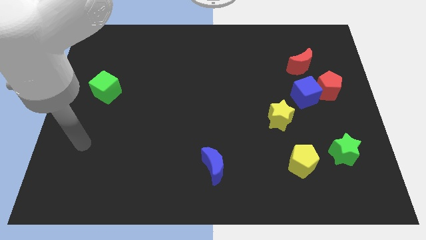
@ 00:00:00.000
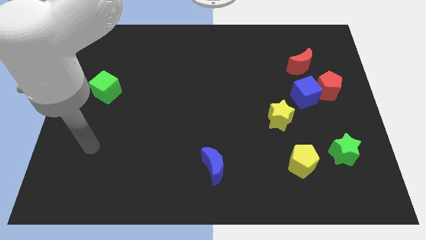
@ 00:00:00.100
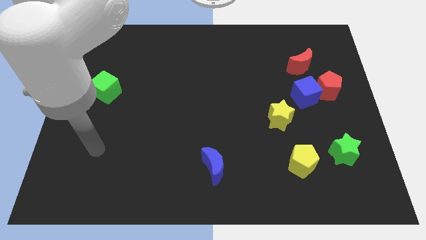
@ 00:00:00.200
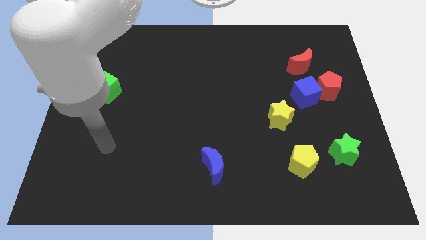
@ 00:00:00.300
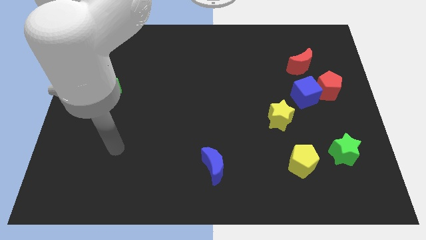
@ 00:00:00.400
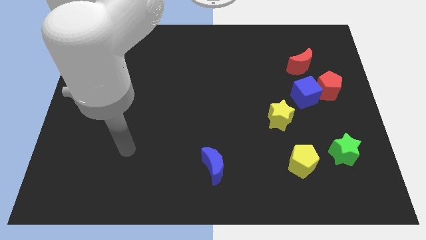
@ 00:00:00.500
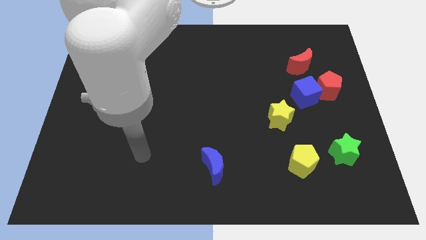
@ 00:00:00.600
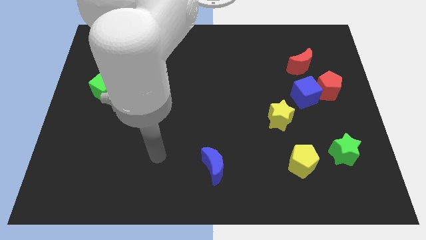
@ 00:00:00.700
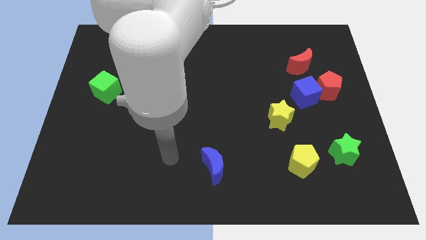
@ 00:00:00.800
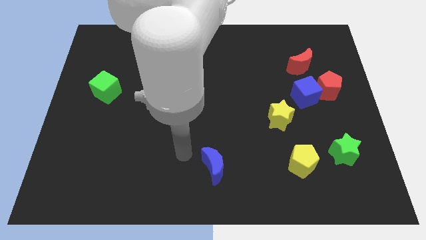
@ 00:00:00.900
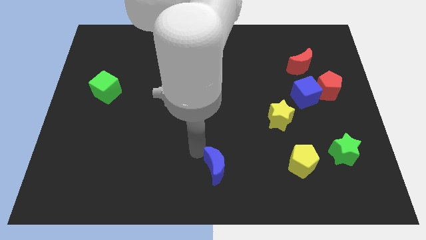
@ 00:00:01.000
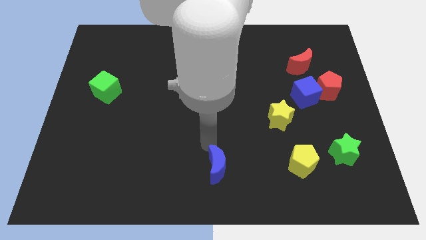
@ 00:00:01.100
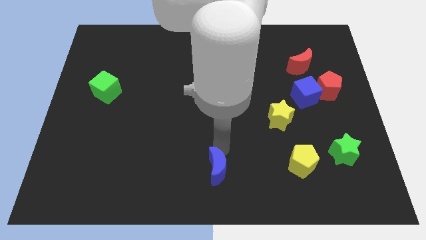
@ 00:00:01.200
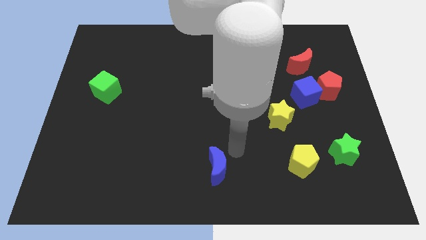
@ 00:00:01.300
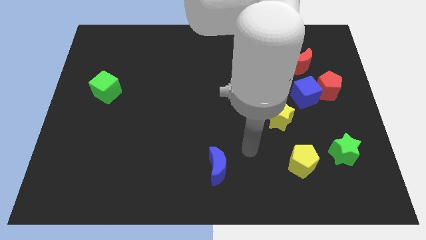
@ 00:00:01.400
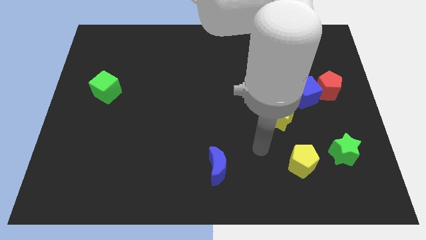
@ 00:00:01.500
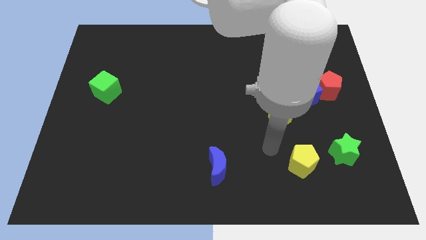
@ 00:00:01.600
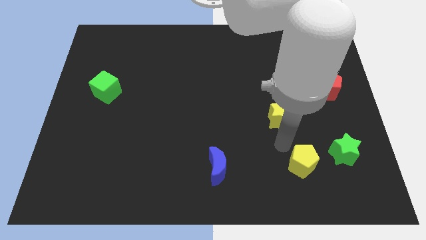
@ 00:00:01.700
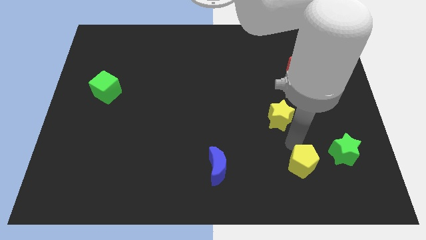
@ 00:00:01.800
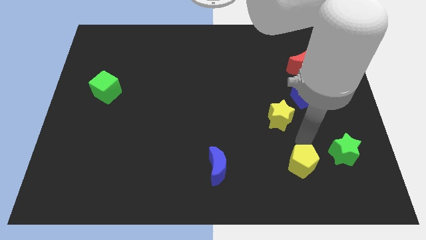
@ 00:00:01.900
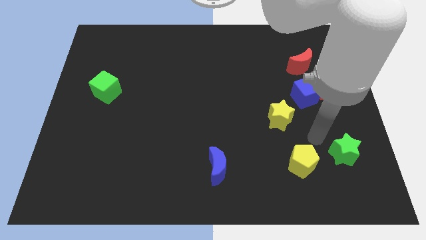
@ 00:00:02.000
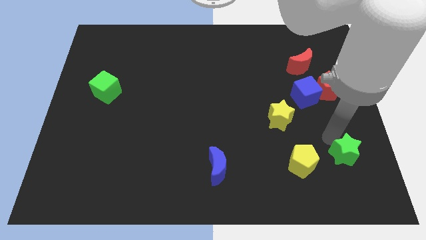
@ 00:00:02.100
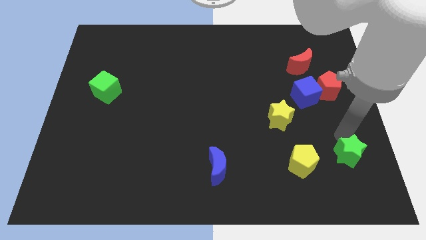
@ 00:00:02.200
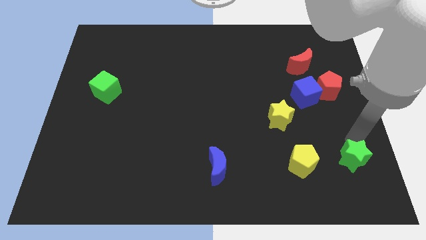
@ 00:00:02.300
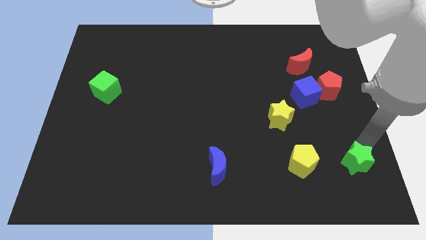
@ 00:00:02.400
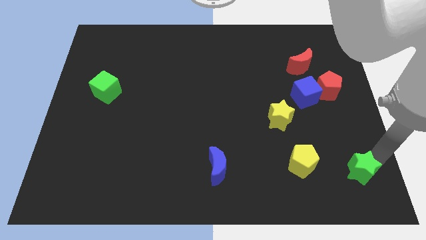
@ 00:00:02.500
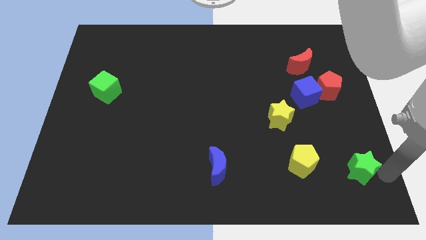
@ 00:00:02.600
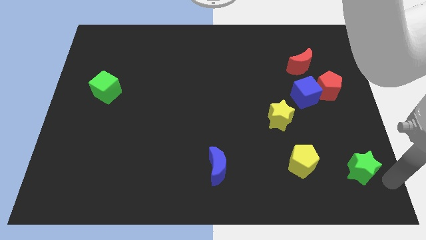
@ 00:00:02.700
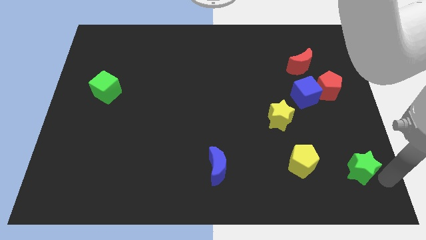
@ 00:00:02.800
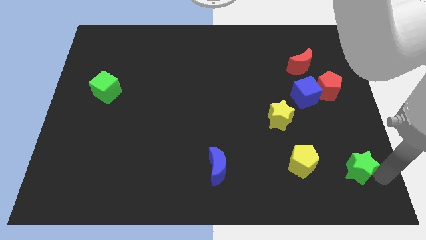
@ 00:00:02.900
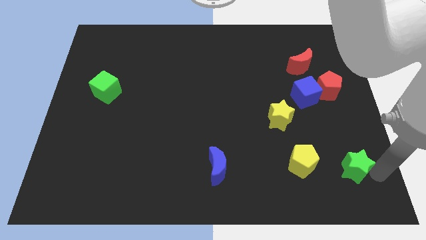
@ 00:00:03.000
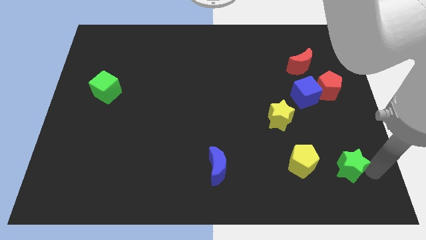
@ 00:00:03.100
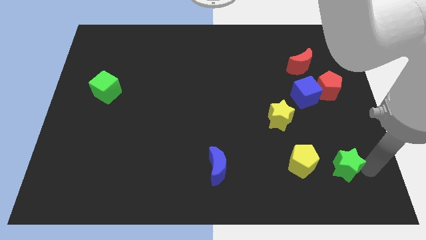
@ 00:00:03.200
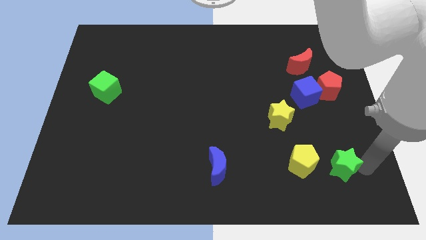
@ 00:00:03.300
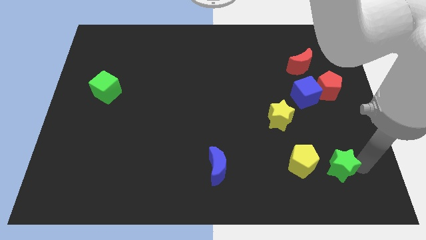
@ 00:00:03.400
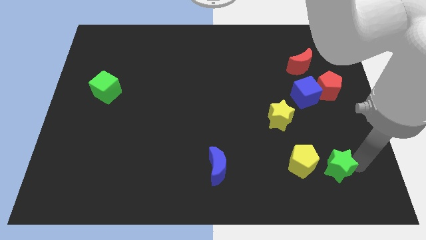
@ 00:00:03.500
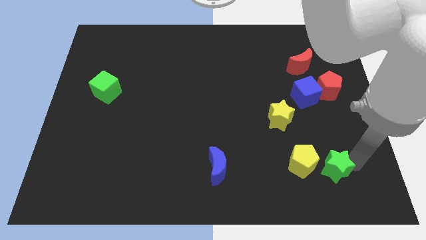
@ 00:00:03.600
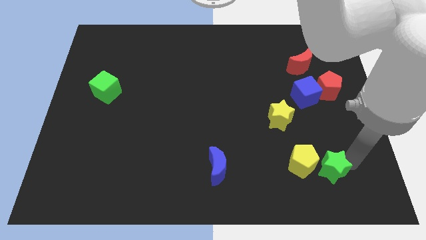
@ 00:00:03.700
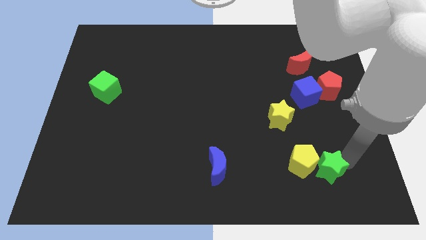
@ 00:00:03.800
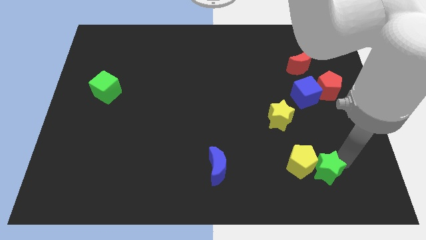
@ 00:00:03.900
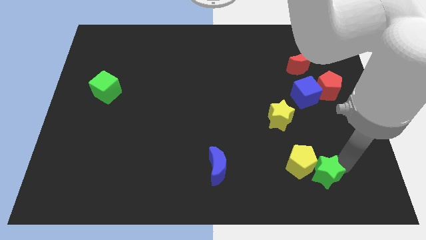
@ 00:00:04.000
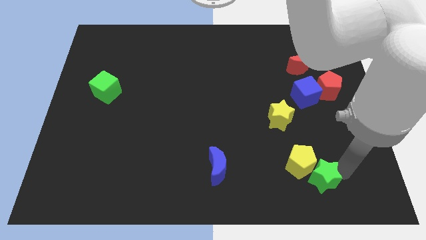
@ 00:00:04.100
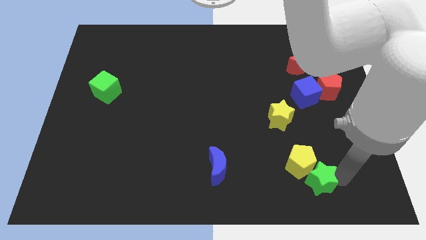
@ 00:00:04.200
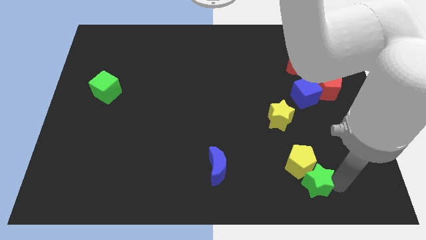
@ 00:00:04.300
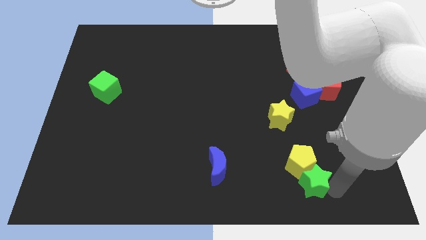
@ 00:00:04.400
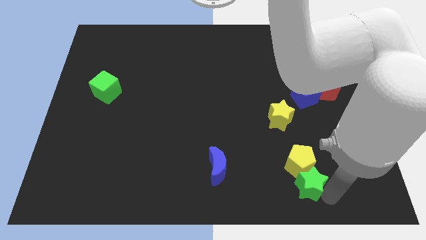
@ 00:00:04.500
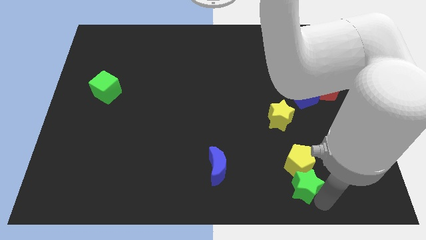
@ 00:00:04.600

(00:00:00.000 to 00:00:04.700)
slide the green star to the left slightly

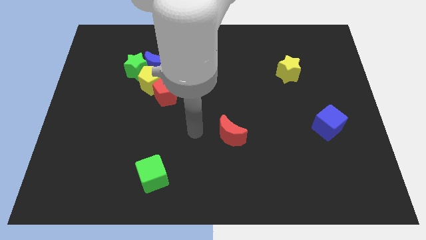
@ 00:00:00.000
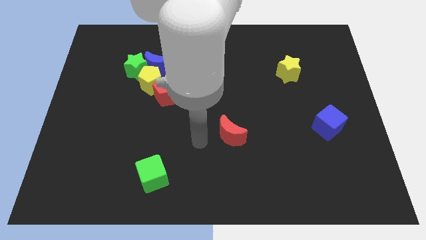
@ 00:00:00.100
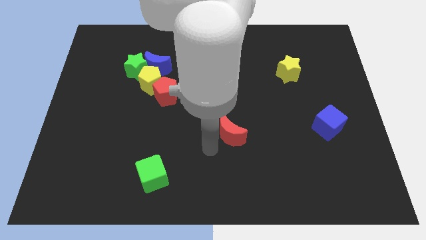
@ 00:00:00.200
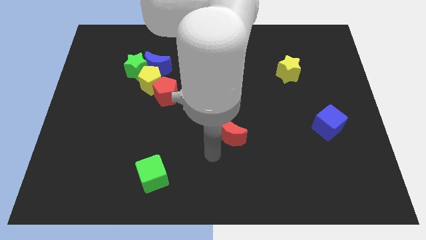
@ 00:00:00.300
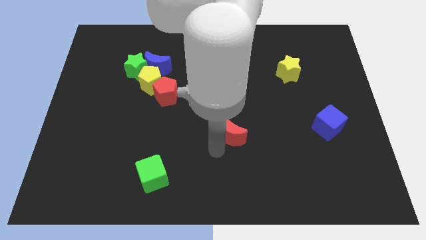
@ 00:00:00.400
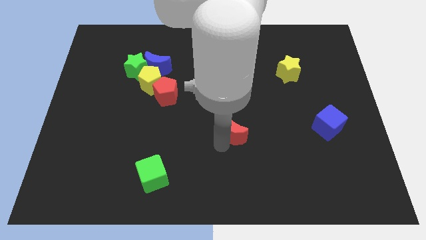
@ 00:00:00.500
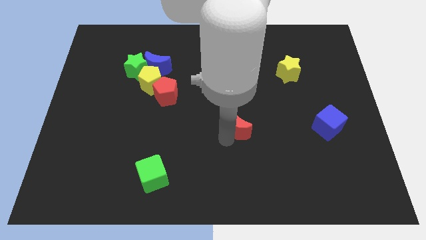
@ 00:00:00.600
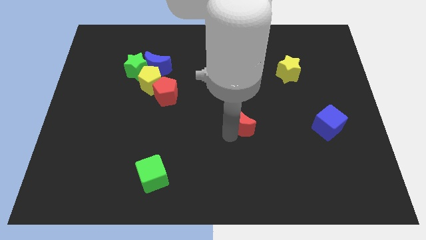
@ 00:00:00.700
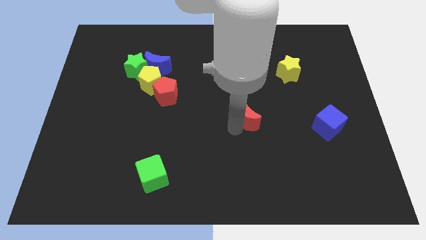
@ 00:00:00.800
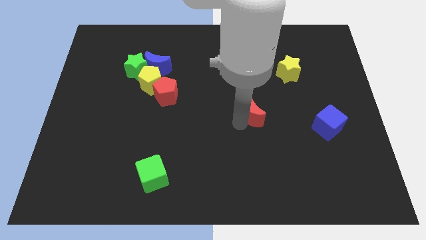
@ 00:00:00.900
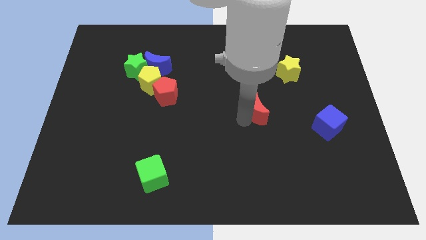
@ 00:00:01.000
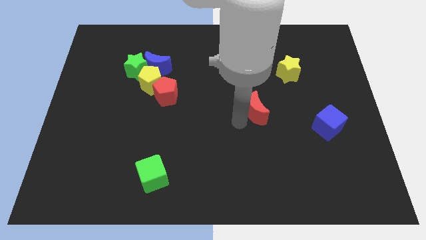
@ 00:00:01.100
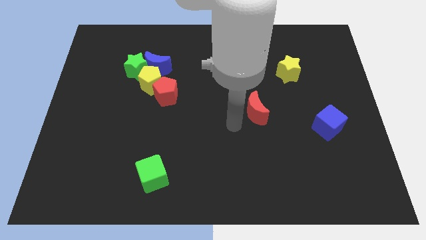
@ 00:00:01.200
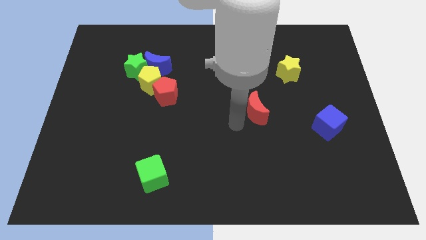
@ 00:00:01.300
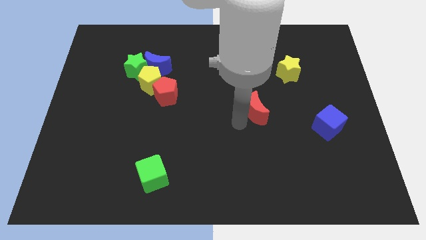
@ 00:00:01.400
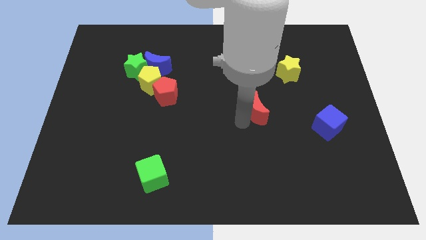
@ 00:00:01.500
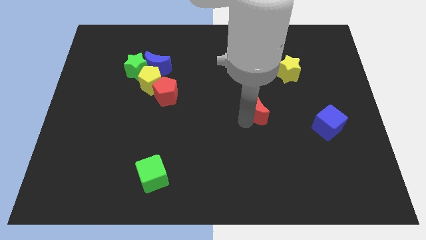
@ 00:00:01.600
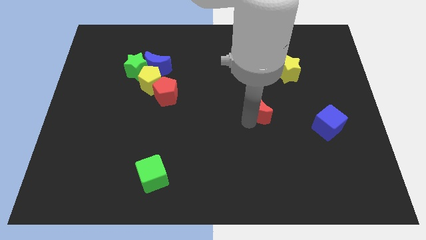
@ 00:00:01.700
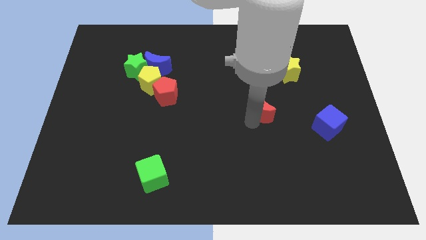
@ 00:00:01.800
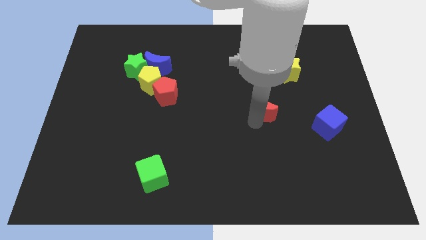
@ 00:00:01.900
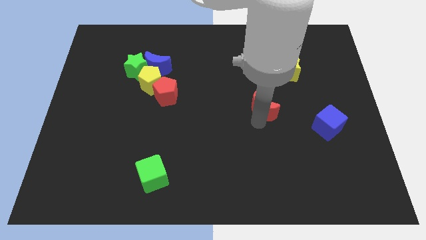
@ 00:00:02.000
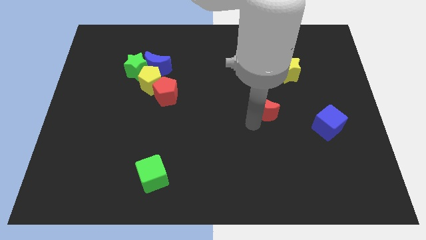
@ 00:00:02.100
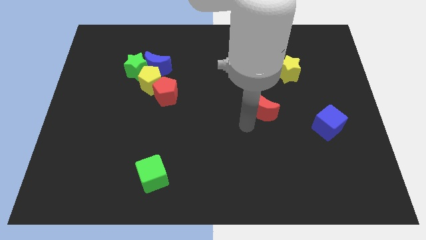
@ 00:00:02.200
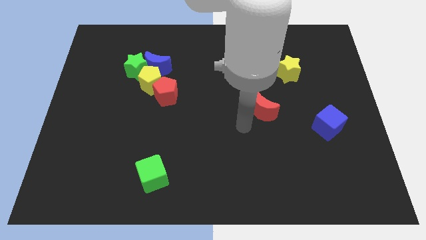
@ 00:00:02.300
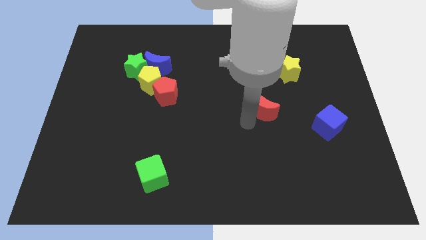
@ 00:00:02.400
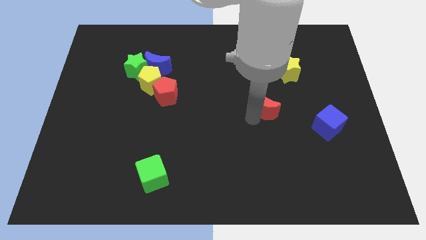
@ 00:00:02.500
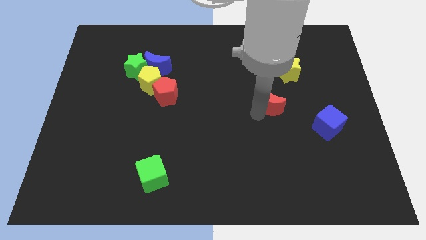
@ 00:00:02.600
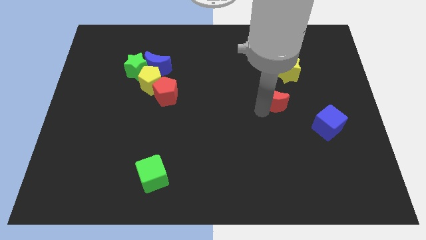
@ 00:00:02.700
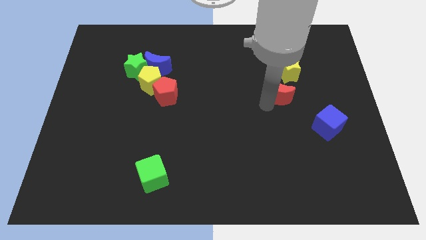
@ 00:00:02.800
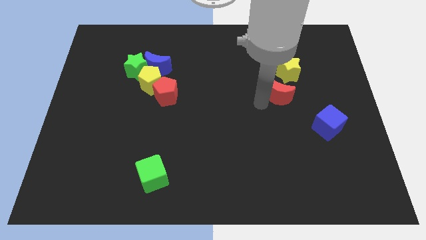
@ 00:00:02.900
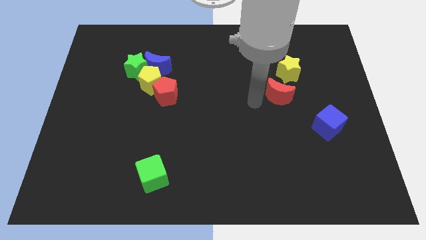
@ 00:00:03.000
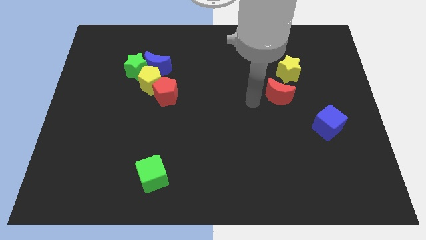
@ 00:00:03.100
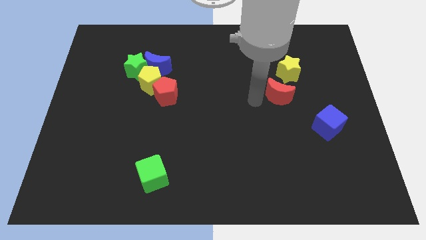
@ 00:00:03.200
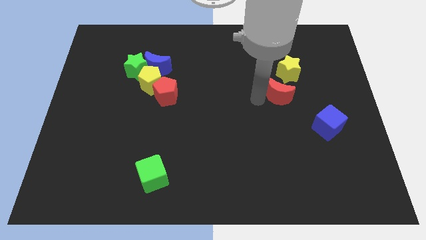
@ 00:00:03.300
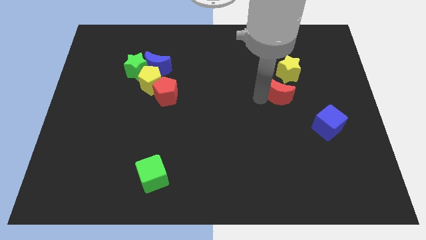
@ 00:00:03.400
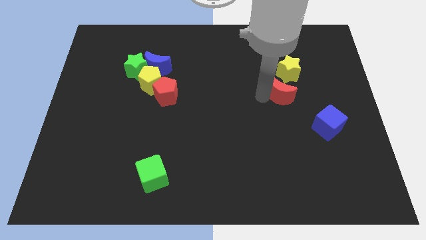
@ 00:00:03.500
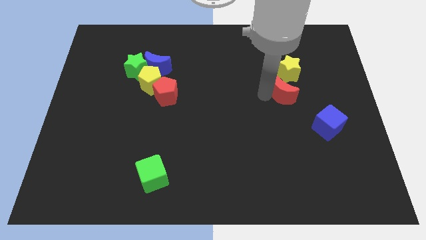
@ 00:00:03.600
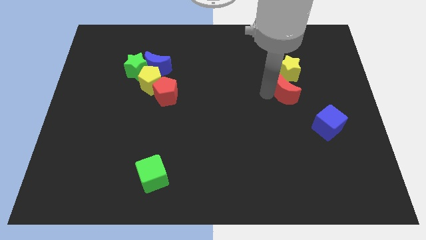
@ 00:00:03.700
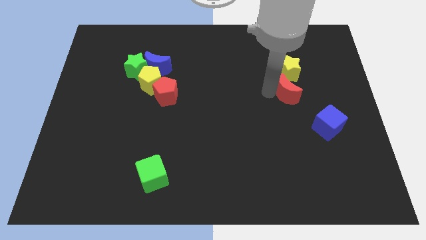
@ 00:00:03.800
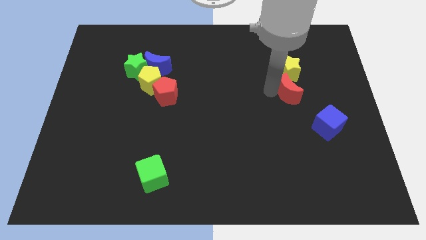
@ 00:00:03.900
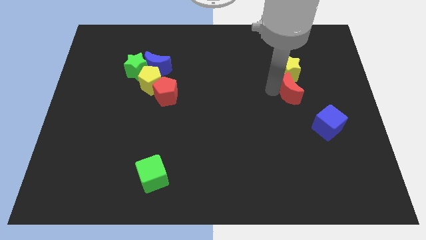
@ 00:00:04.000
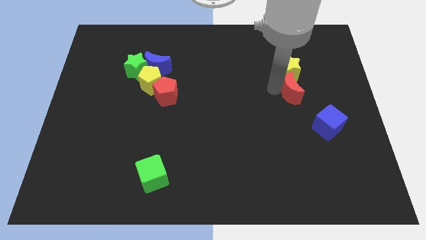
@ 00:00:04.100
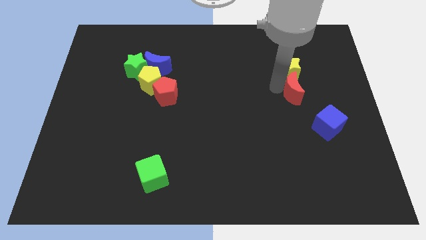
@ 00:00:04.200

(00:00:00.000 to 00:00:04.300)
push the red moon up and right
